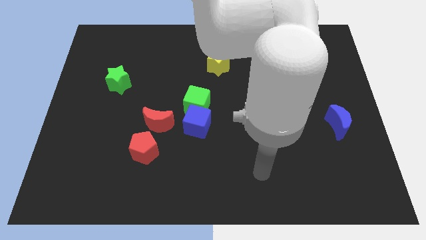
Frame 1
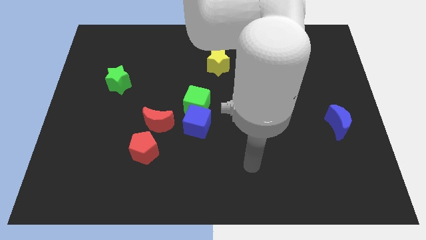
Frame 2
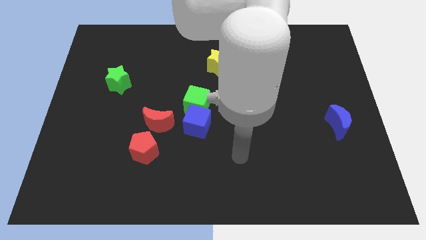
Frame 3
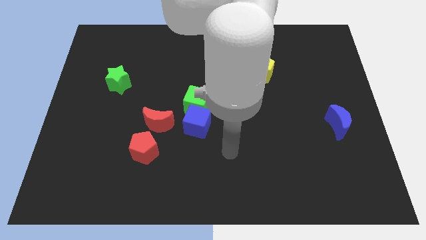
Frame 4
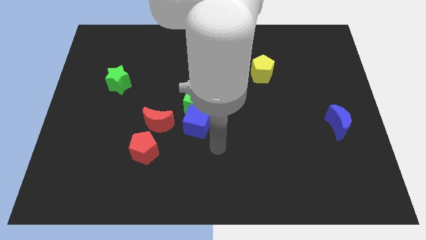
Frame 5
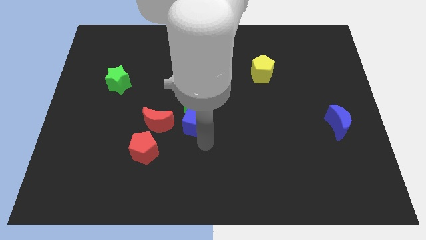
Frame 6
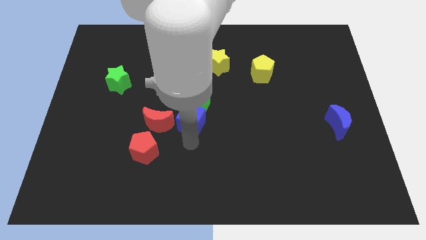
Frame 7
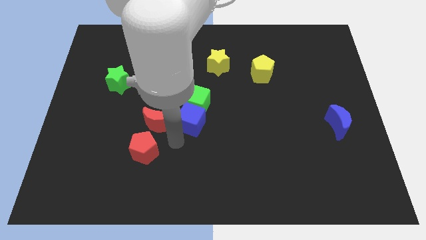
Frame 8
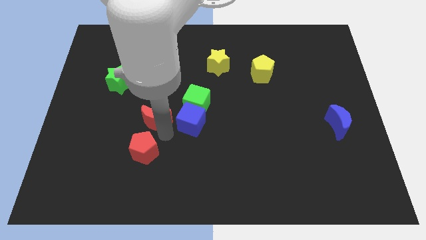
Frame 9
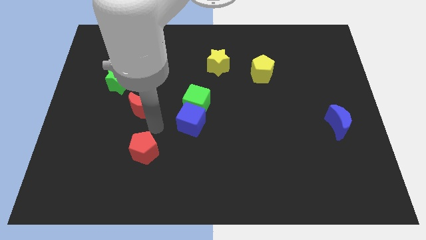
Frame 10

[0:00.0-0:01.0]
move the red pentagon away from the red moon

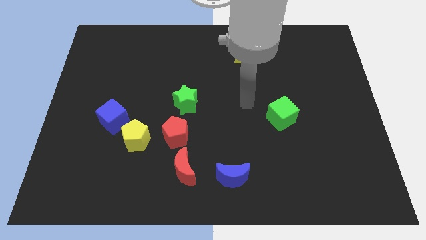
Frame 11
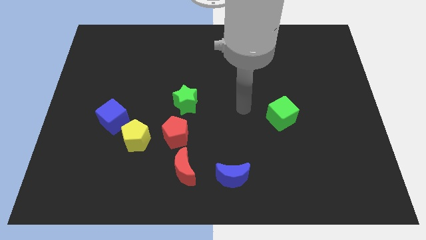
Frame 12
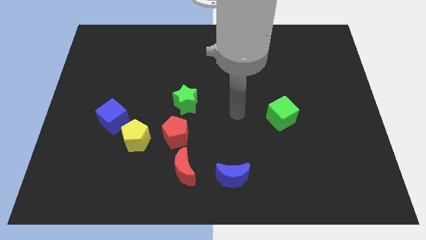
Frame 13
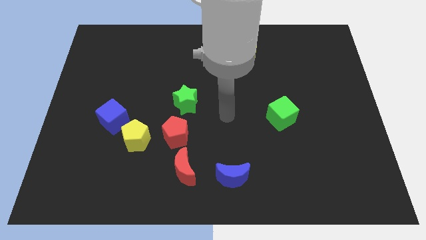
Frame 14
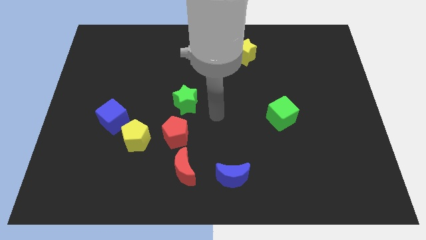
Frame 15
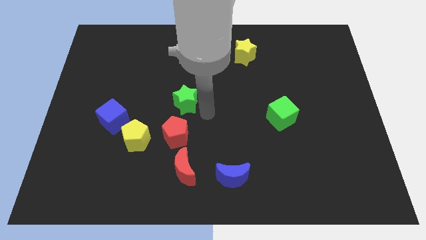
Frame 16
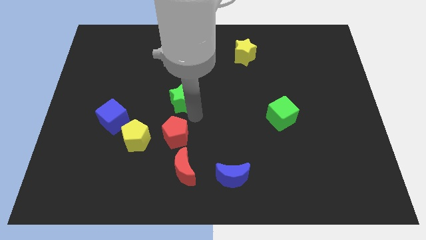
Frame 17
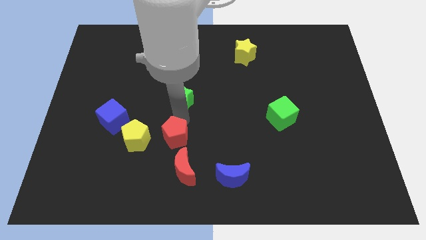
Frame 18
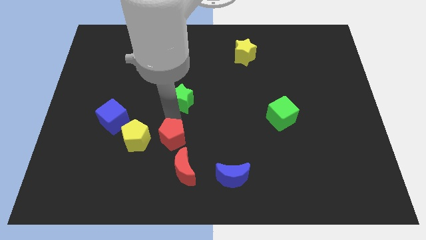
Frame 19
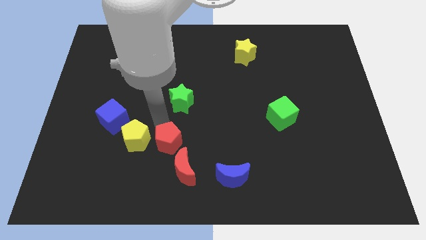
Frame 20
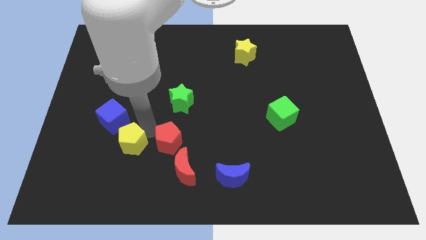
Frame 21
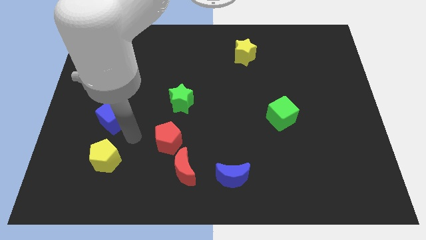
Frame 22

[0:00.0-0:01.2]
move the blue cube away from the yellow pentagon

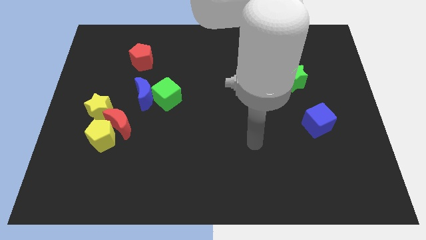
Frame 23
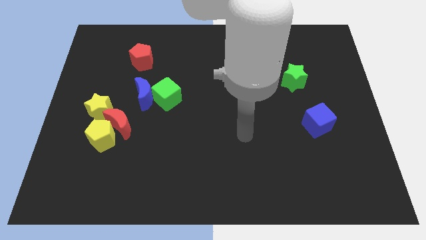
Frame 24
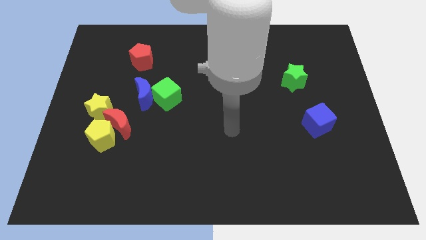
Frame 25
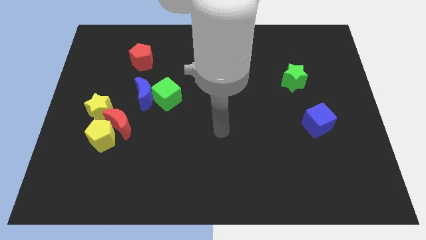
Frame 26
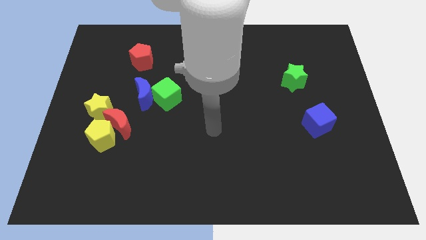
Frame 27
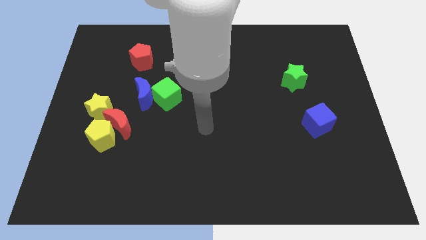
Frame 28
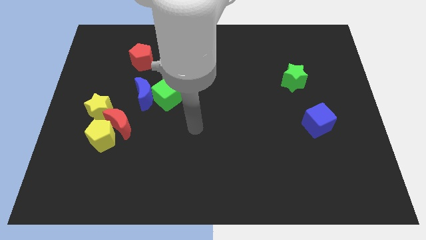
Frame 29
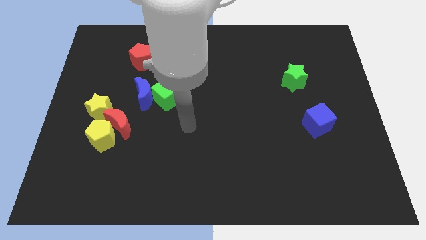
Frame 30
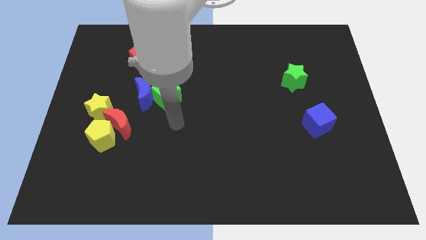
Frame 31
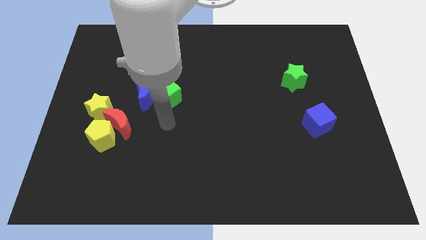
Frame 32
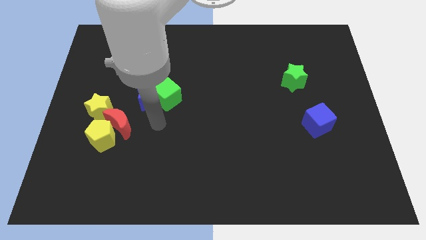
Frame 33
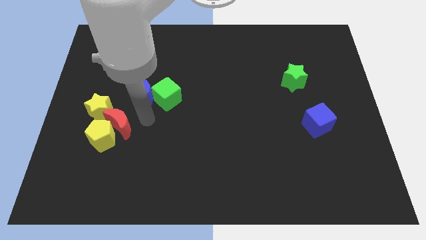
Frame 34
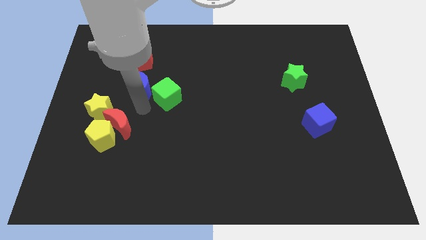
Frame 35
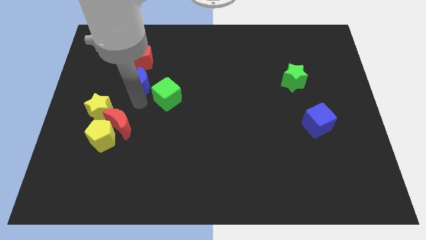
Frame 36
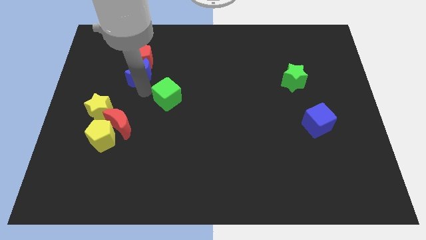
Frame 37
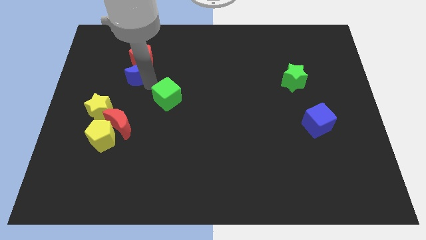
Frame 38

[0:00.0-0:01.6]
pull the green cube apart from the blue moon

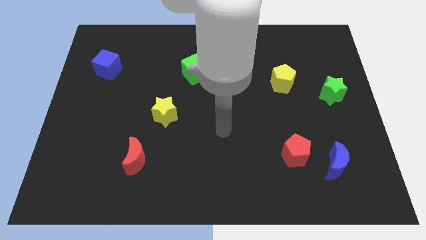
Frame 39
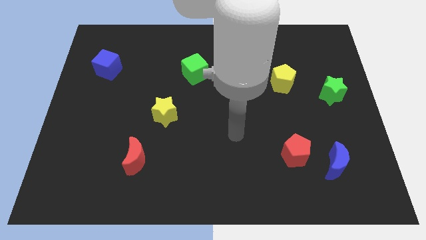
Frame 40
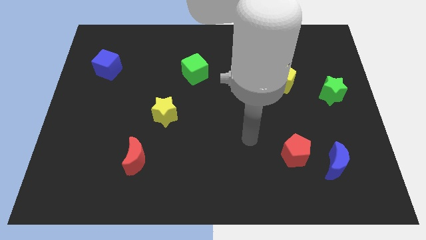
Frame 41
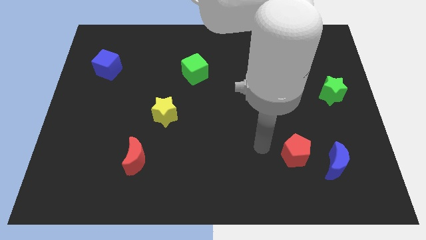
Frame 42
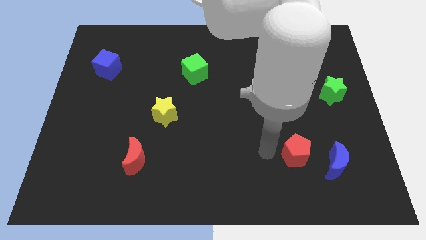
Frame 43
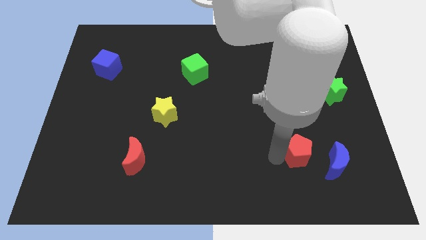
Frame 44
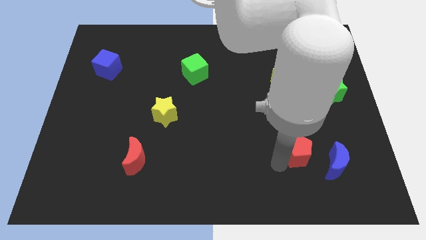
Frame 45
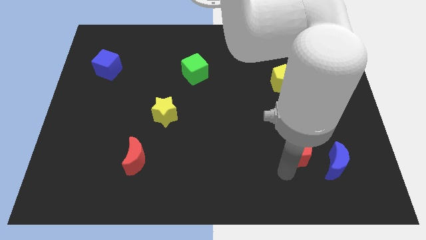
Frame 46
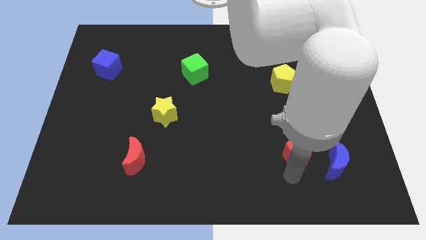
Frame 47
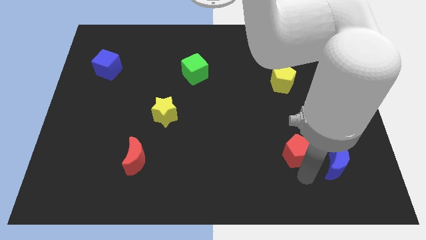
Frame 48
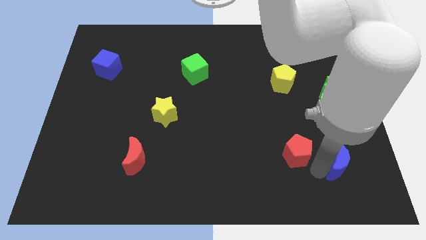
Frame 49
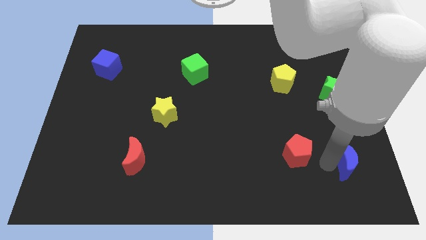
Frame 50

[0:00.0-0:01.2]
move the red pentagon away from the blue moon

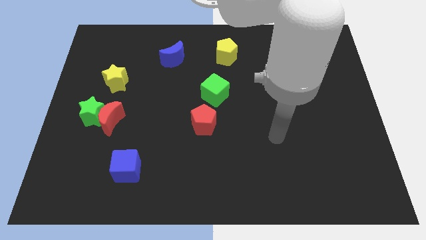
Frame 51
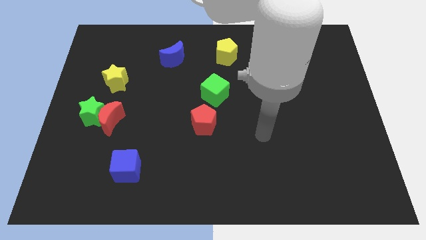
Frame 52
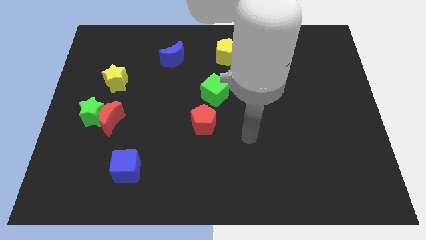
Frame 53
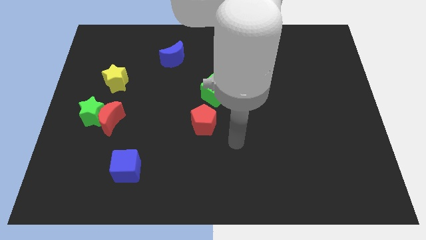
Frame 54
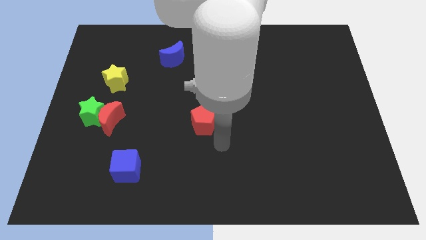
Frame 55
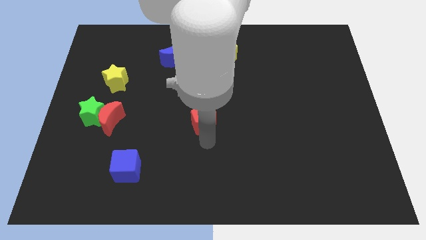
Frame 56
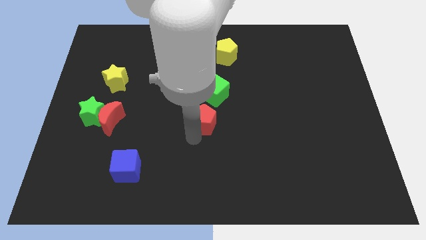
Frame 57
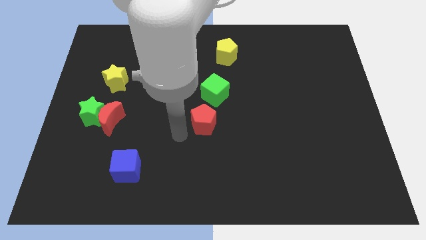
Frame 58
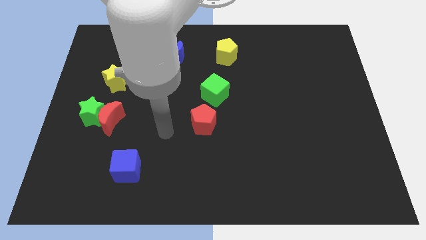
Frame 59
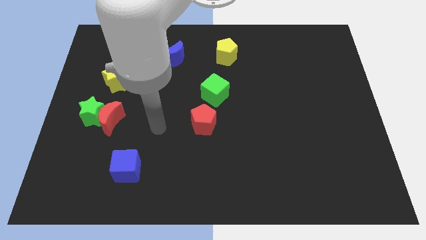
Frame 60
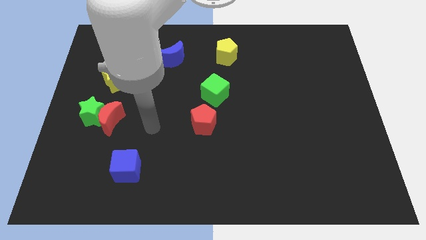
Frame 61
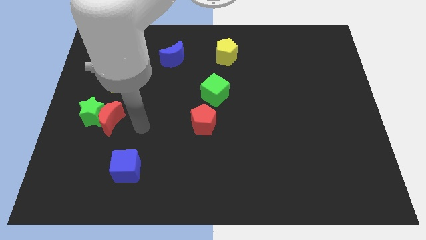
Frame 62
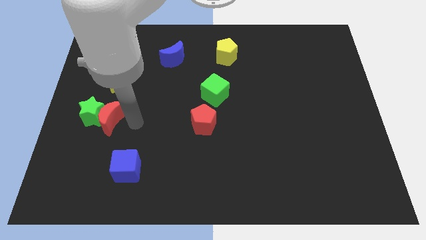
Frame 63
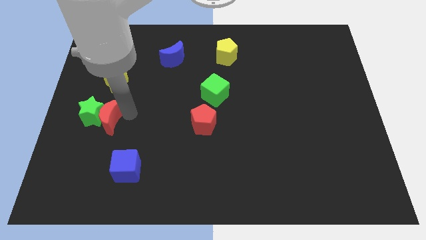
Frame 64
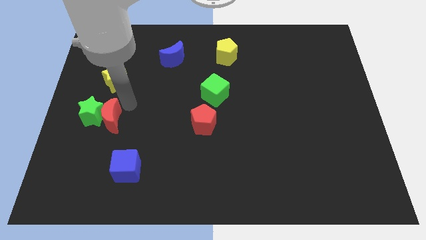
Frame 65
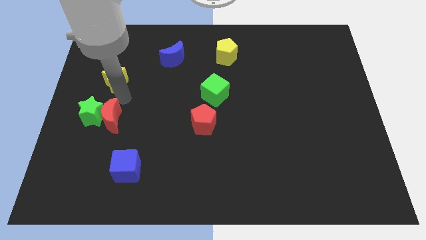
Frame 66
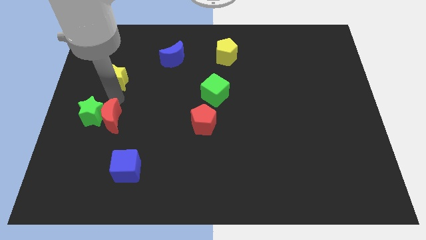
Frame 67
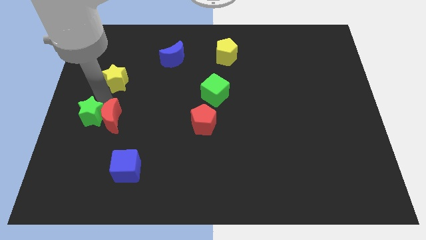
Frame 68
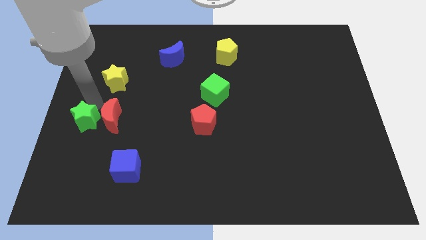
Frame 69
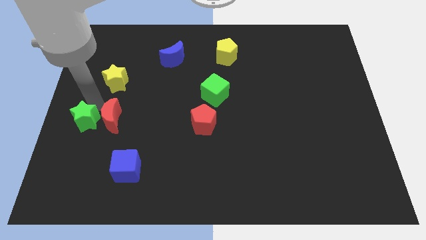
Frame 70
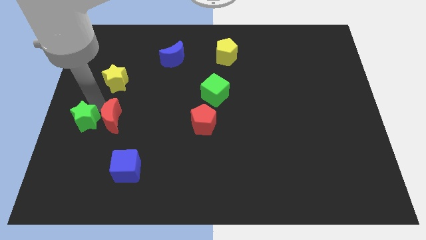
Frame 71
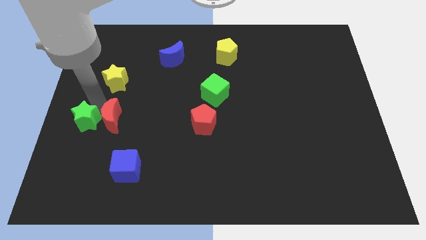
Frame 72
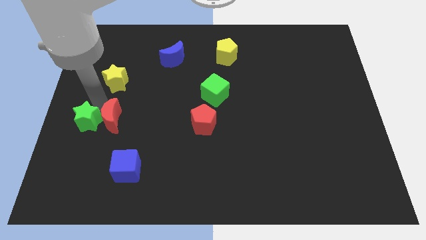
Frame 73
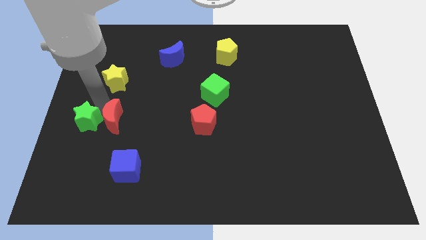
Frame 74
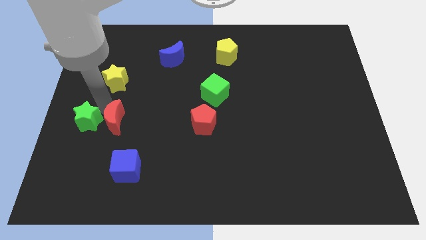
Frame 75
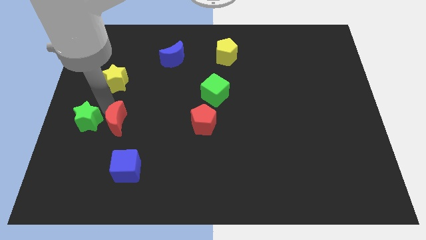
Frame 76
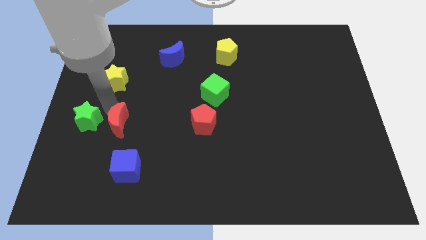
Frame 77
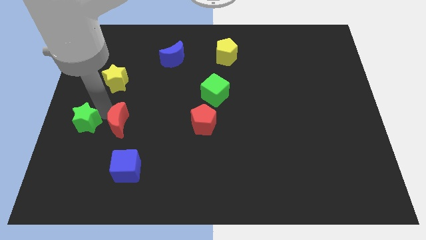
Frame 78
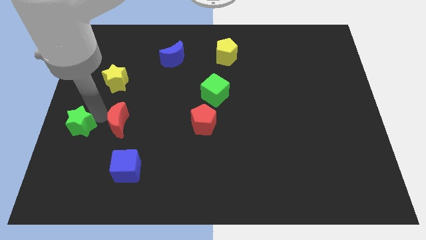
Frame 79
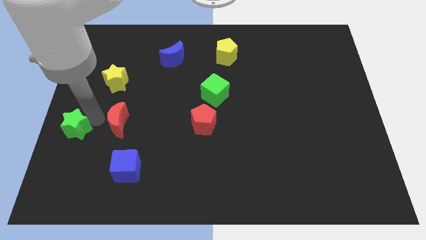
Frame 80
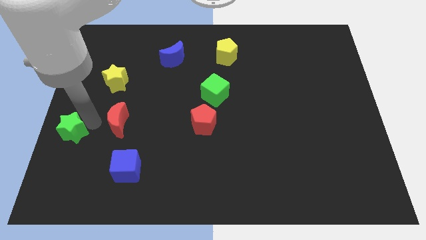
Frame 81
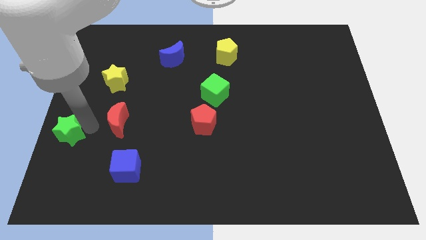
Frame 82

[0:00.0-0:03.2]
separate the red moon from the green star

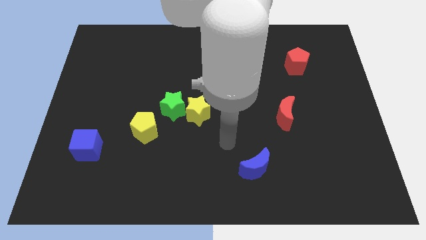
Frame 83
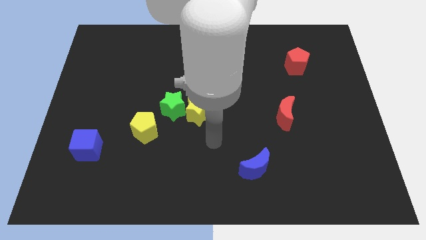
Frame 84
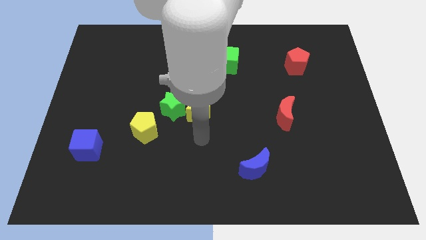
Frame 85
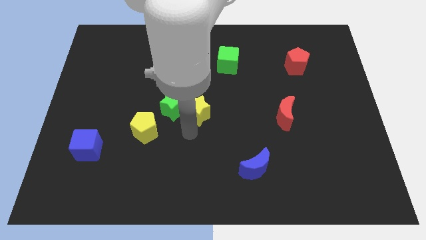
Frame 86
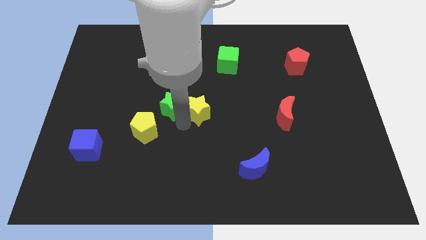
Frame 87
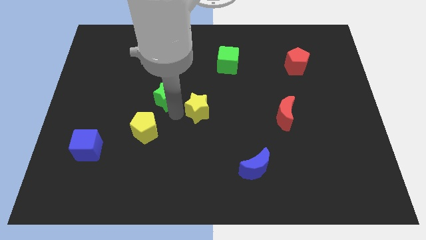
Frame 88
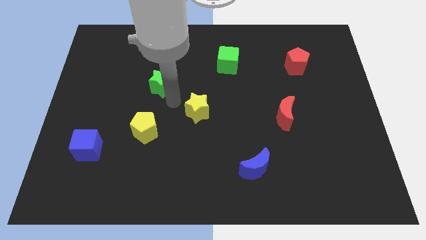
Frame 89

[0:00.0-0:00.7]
pull the yellow star apart from the green star

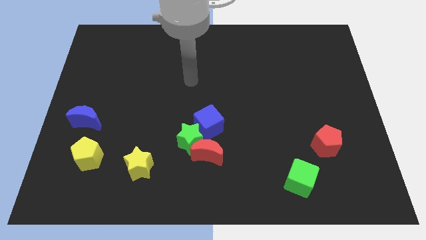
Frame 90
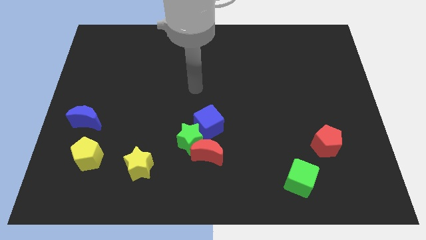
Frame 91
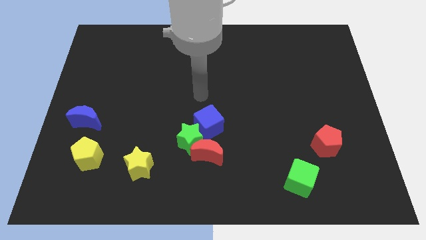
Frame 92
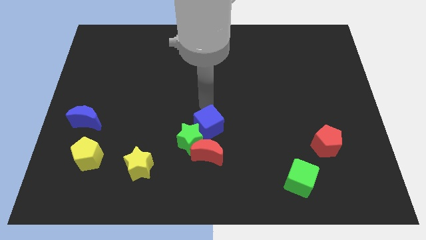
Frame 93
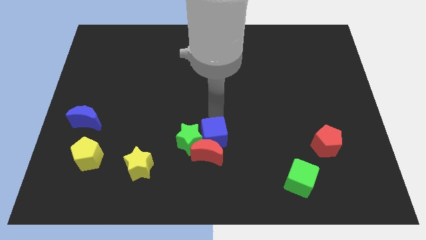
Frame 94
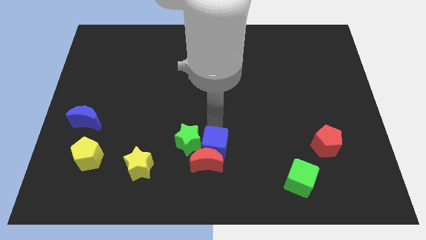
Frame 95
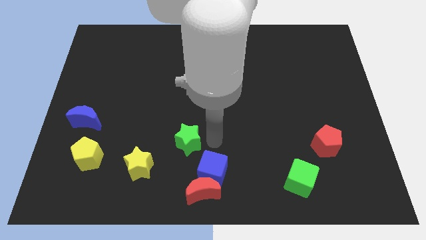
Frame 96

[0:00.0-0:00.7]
pull the green star apart from the red moon and blue cube
